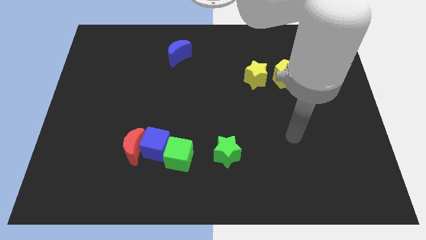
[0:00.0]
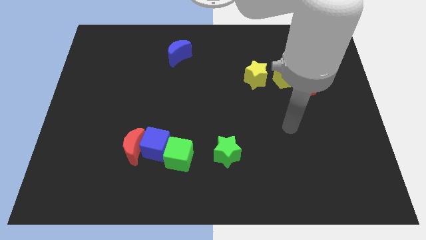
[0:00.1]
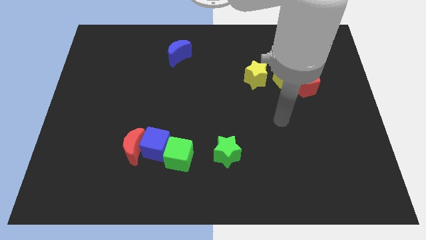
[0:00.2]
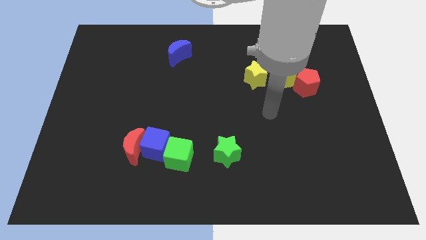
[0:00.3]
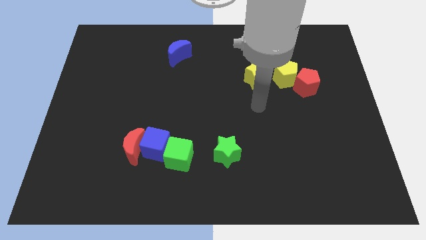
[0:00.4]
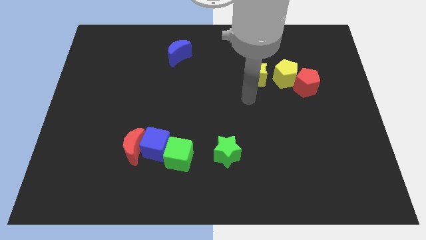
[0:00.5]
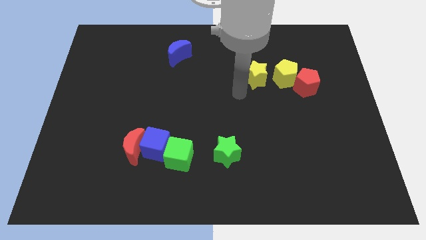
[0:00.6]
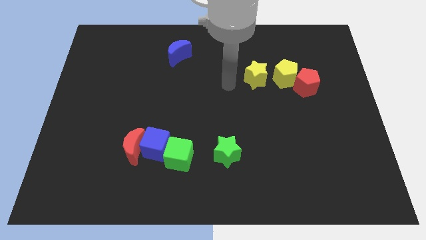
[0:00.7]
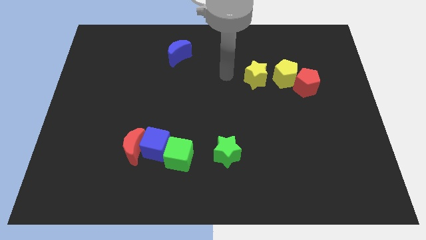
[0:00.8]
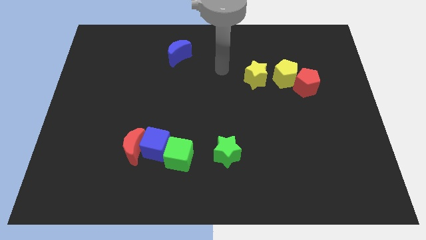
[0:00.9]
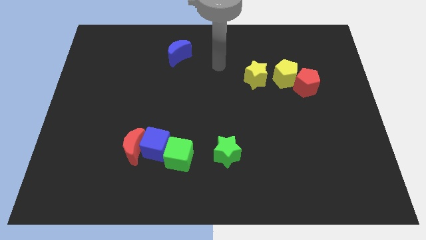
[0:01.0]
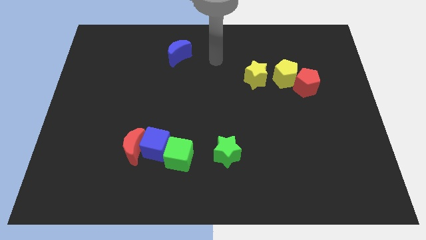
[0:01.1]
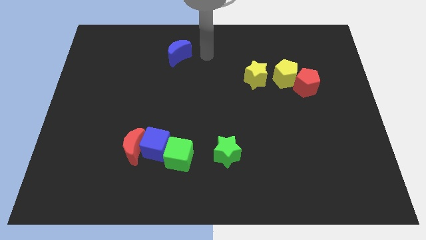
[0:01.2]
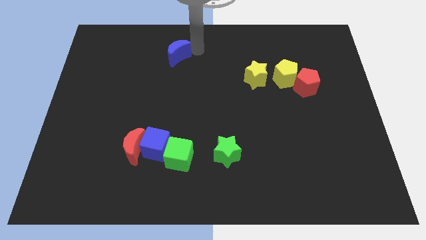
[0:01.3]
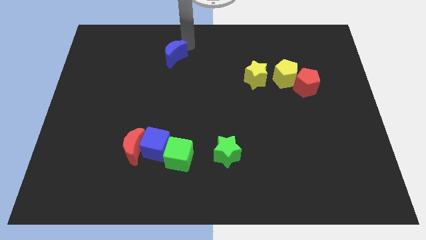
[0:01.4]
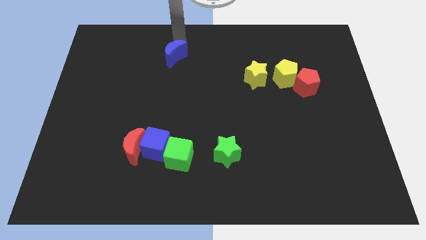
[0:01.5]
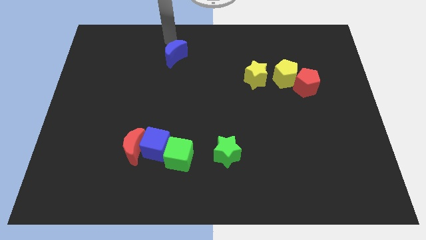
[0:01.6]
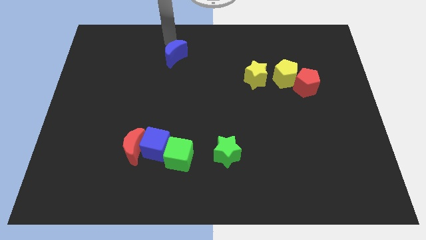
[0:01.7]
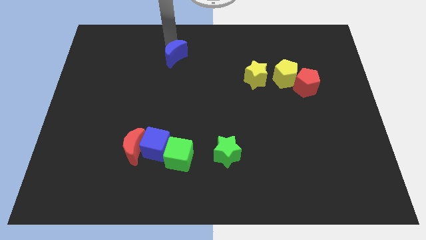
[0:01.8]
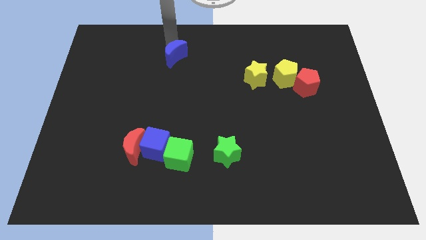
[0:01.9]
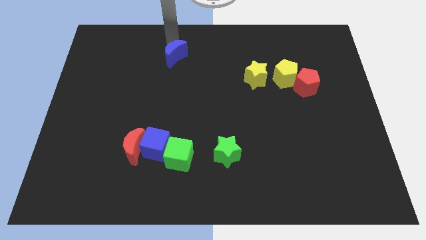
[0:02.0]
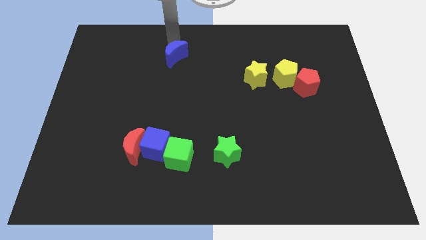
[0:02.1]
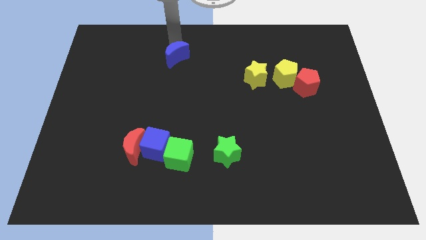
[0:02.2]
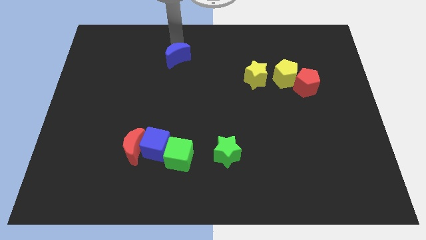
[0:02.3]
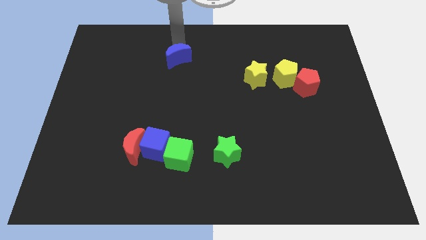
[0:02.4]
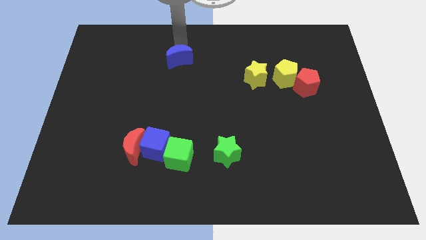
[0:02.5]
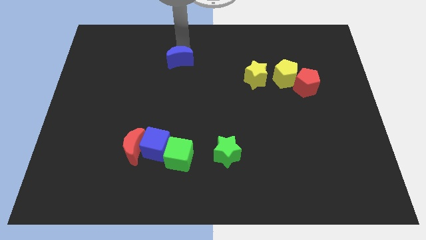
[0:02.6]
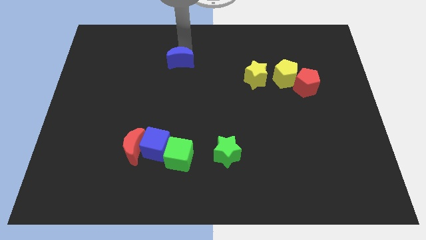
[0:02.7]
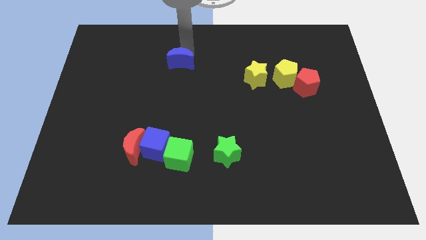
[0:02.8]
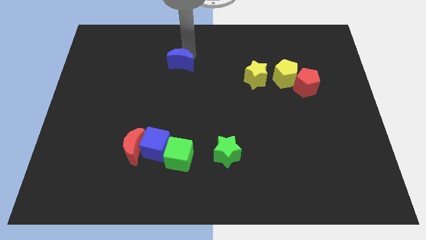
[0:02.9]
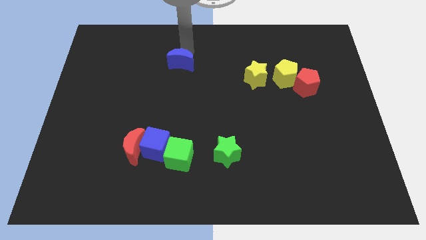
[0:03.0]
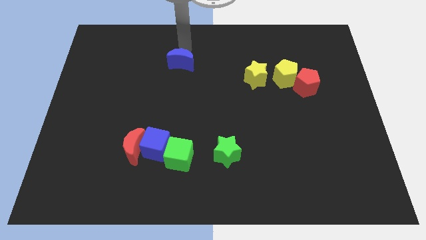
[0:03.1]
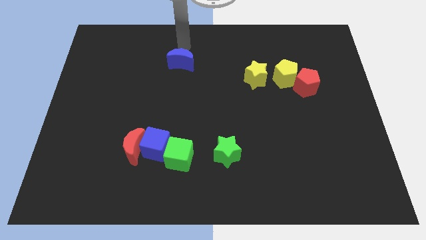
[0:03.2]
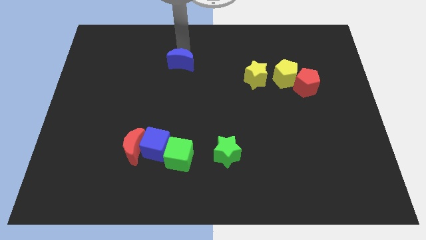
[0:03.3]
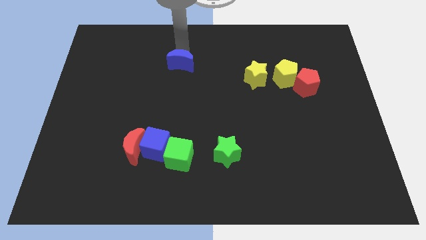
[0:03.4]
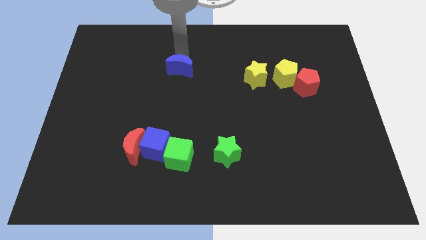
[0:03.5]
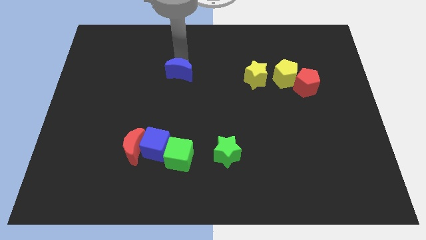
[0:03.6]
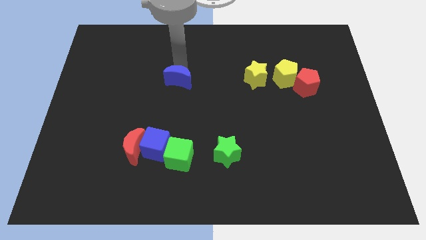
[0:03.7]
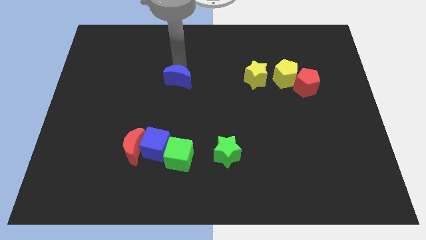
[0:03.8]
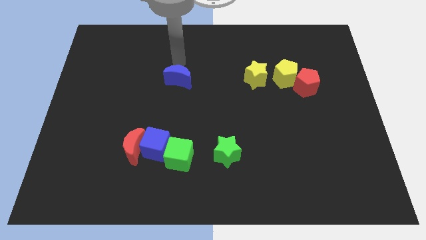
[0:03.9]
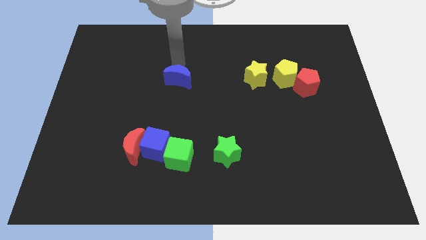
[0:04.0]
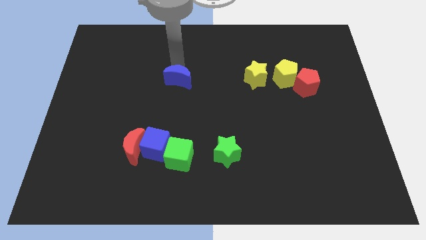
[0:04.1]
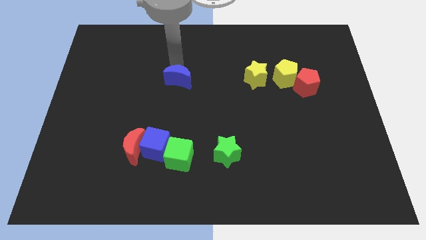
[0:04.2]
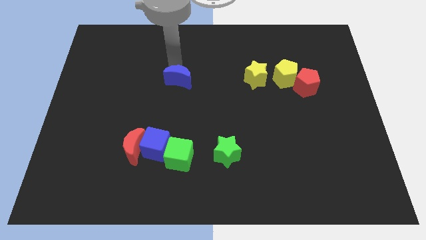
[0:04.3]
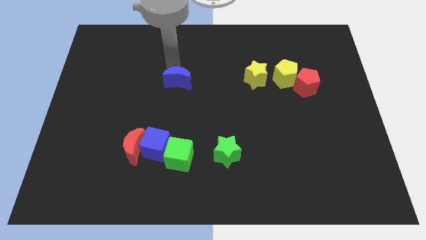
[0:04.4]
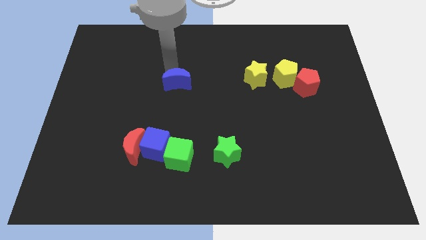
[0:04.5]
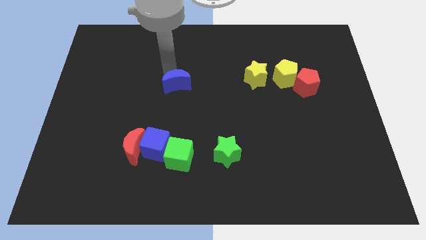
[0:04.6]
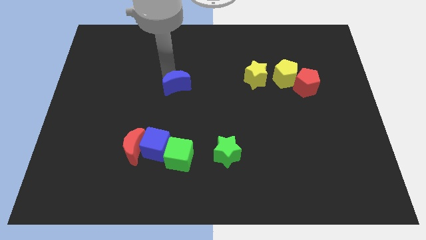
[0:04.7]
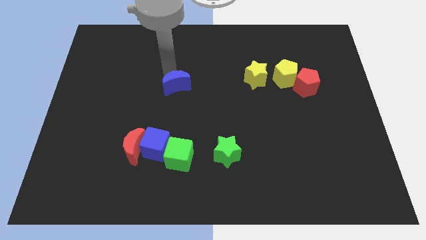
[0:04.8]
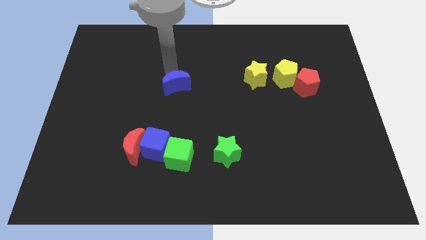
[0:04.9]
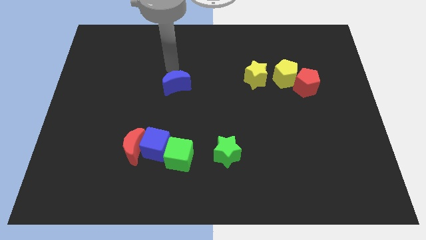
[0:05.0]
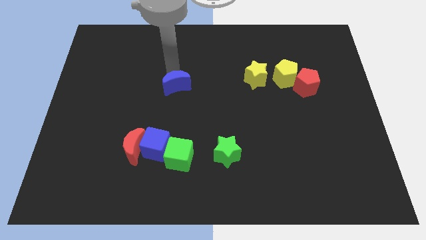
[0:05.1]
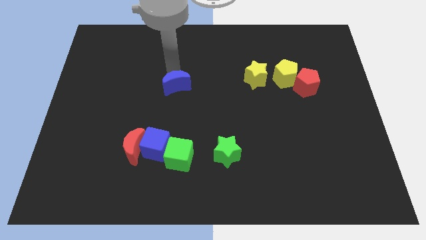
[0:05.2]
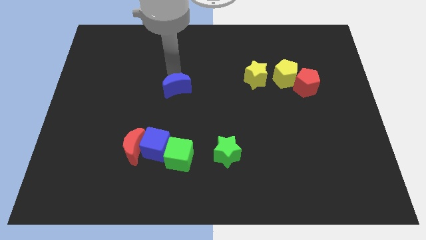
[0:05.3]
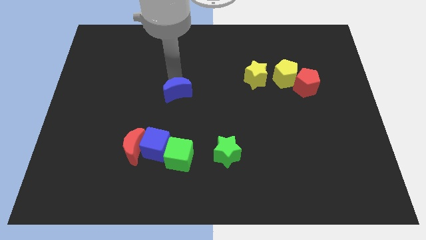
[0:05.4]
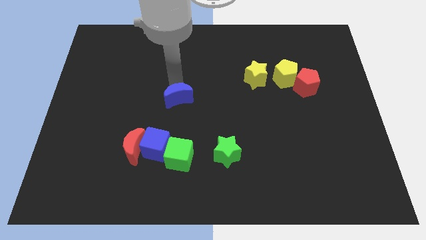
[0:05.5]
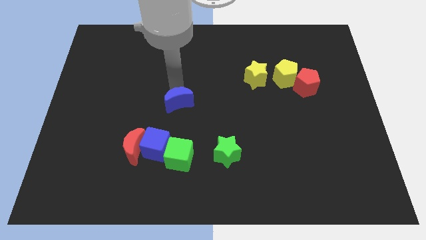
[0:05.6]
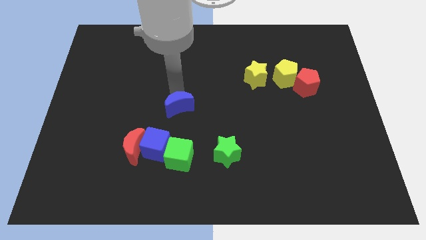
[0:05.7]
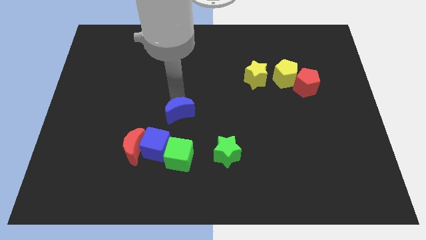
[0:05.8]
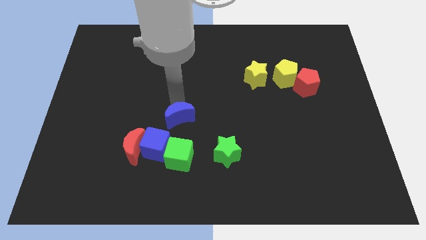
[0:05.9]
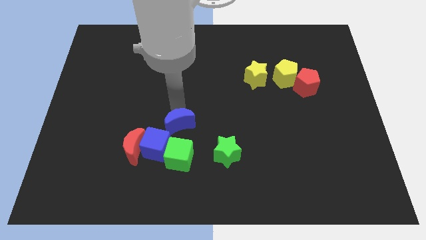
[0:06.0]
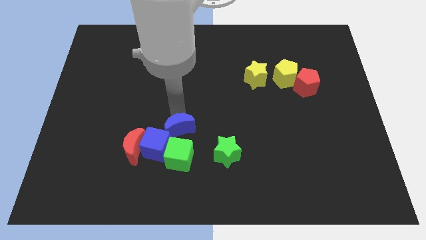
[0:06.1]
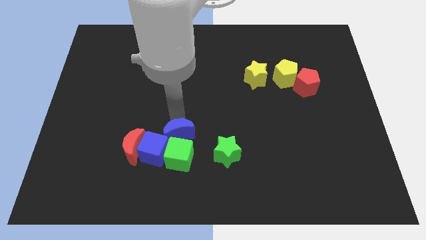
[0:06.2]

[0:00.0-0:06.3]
move the blue moon next to the green cube
